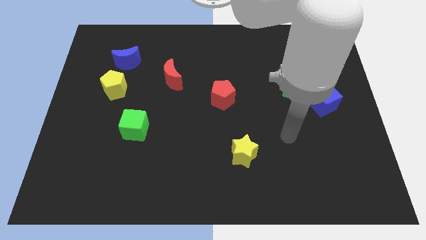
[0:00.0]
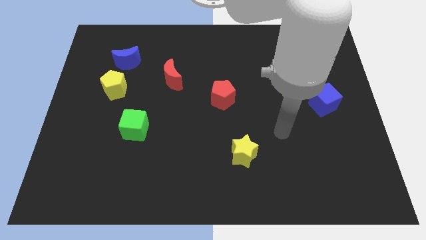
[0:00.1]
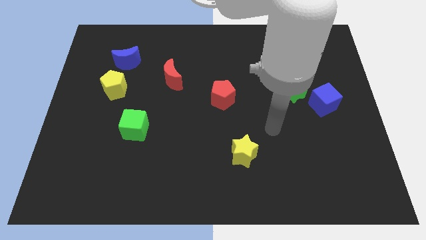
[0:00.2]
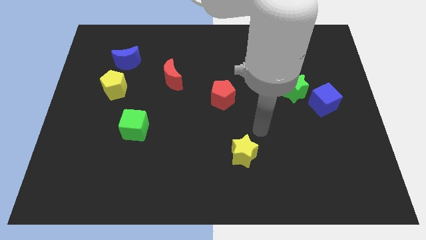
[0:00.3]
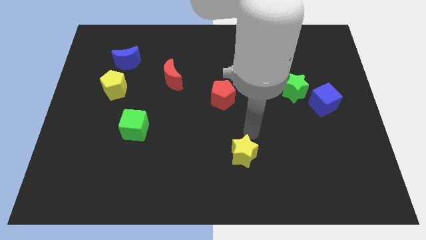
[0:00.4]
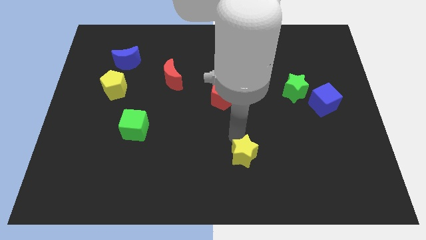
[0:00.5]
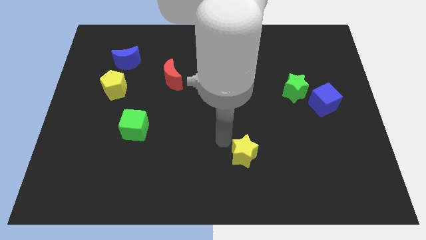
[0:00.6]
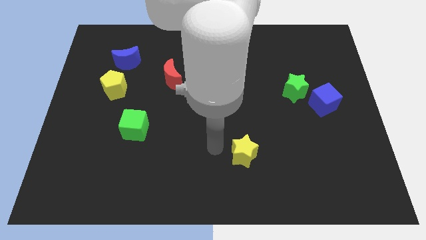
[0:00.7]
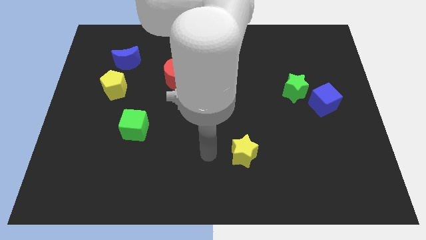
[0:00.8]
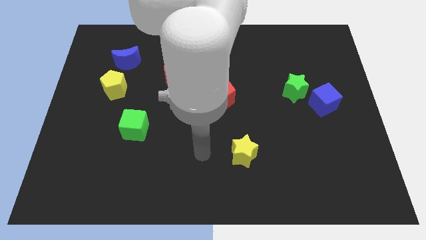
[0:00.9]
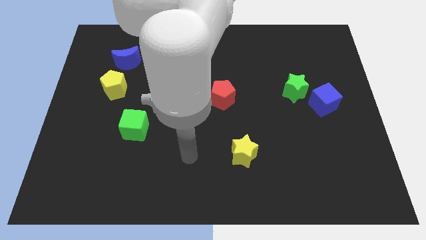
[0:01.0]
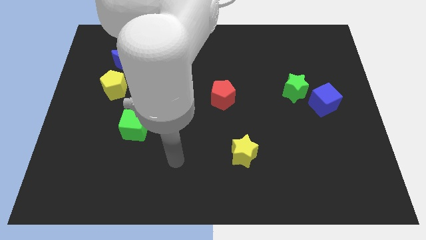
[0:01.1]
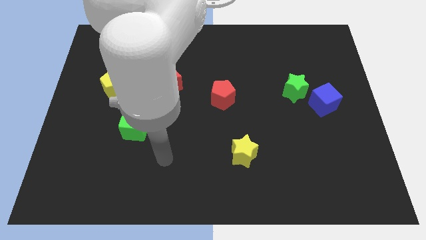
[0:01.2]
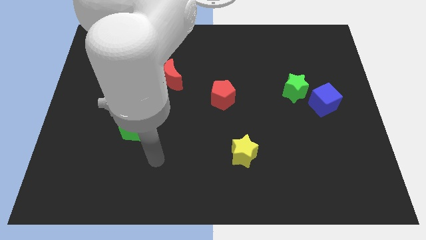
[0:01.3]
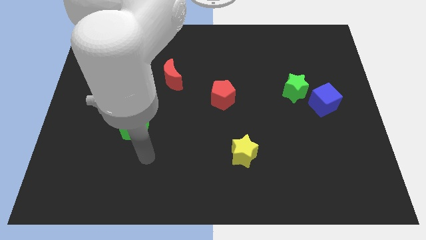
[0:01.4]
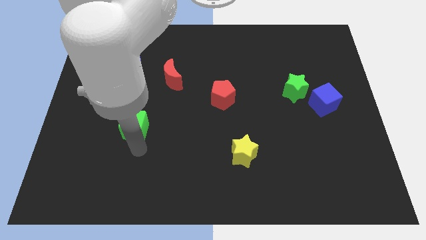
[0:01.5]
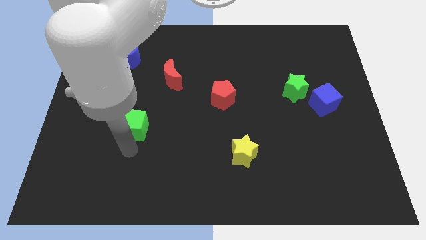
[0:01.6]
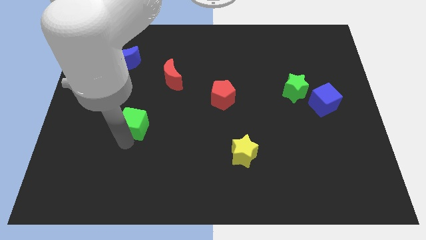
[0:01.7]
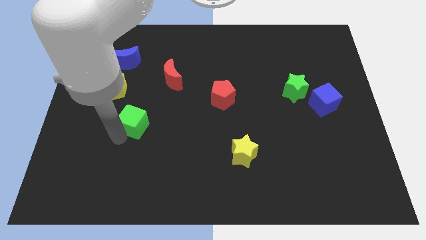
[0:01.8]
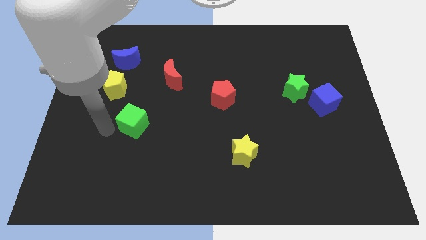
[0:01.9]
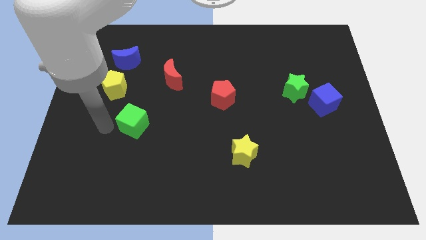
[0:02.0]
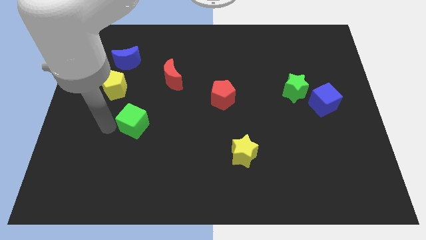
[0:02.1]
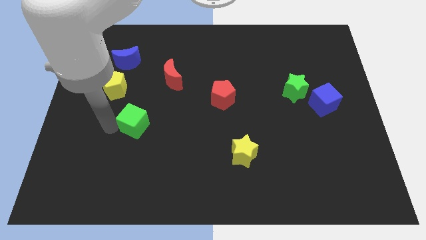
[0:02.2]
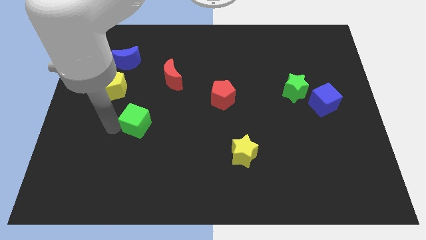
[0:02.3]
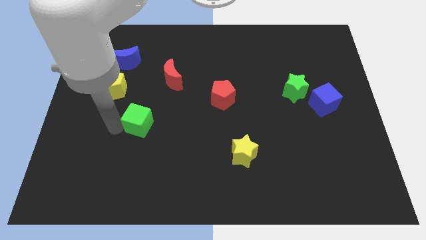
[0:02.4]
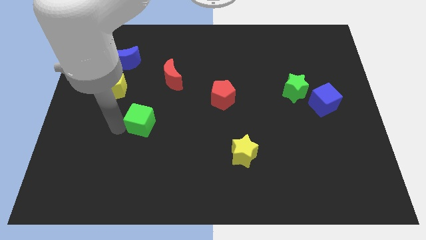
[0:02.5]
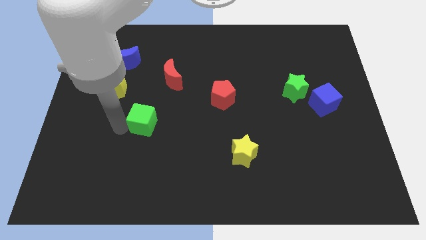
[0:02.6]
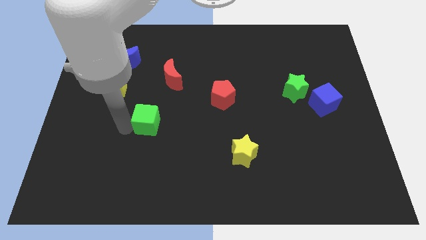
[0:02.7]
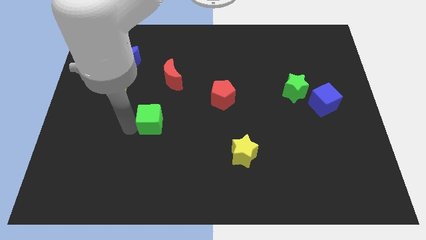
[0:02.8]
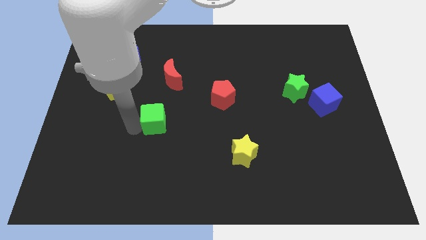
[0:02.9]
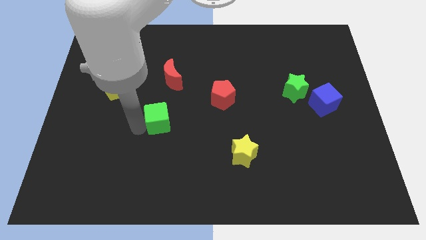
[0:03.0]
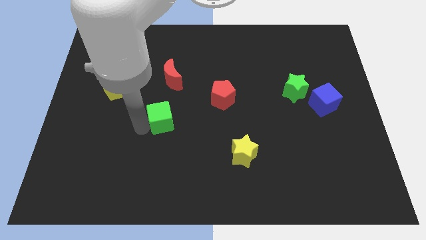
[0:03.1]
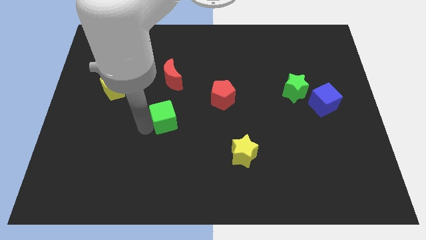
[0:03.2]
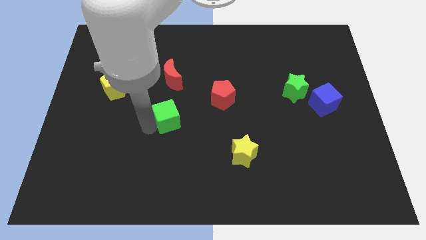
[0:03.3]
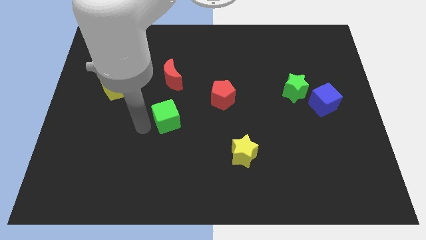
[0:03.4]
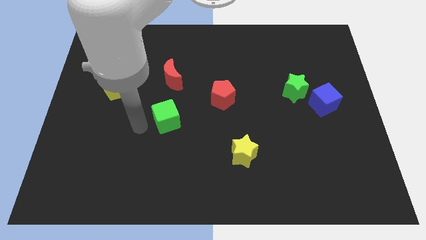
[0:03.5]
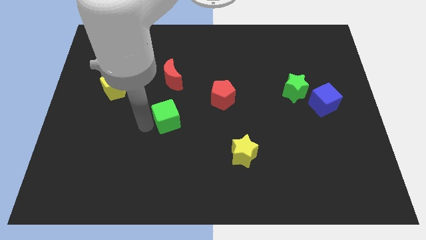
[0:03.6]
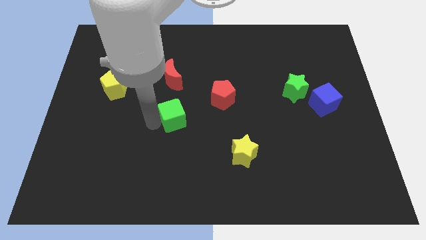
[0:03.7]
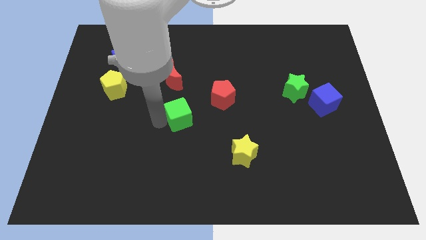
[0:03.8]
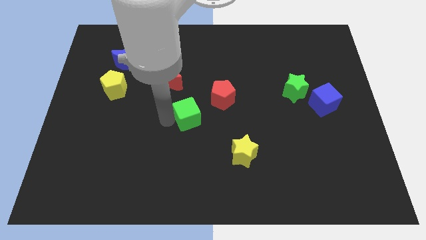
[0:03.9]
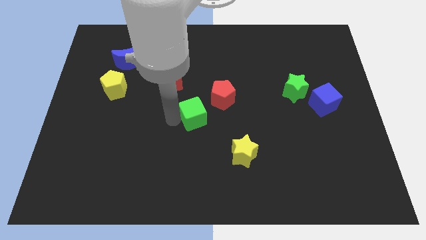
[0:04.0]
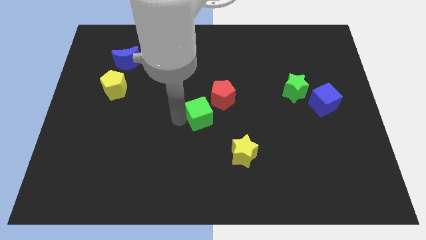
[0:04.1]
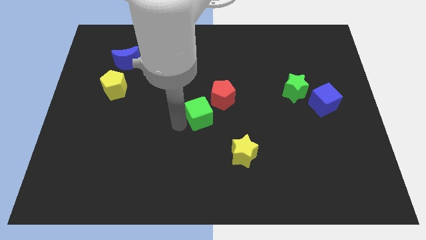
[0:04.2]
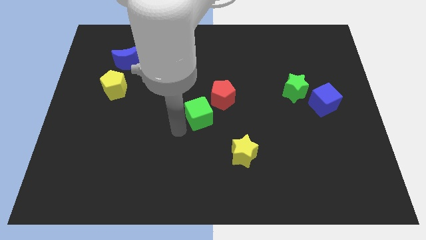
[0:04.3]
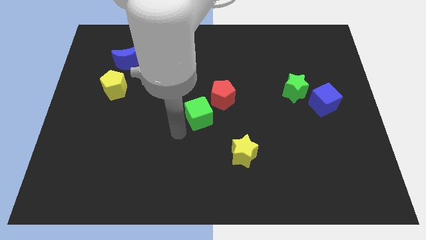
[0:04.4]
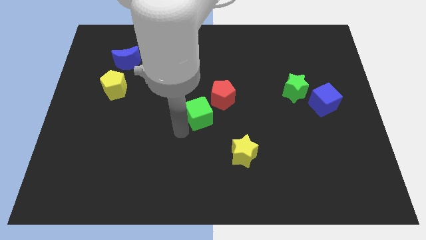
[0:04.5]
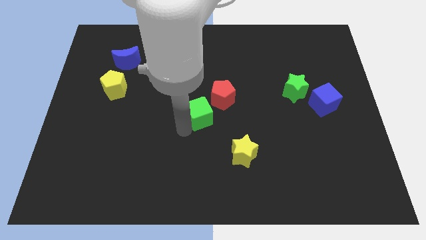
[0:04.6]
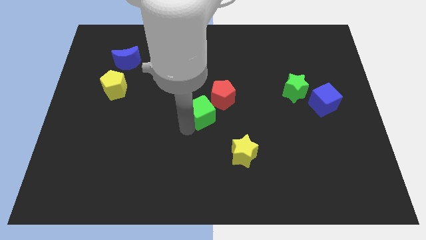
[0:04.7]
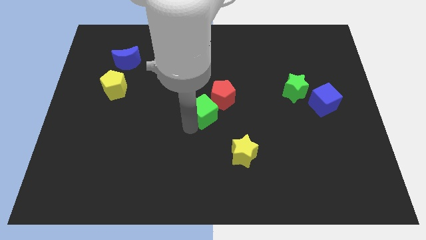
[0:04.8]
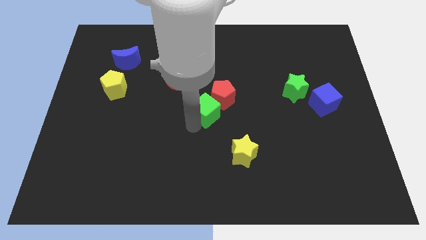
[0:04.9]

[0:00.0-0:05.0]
put the green cube to the red pentagon

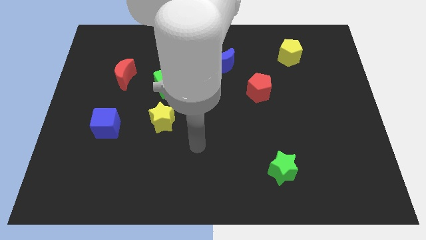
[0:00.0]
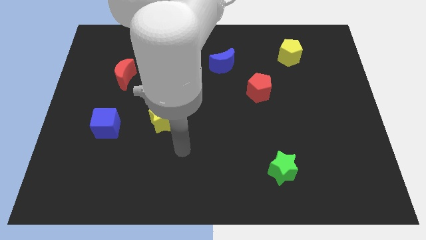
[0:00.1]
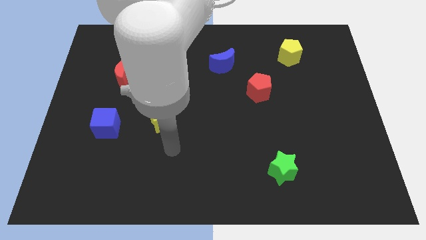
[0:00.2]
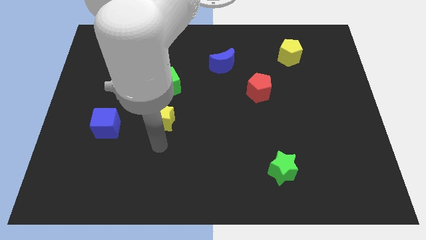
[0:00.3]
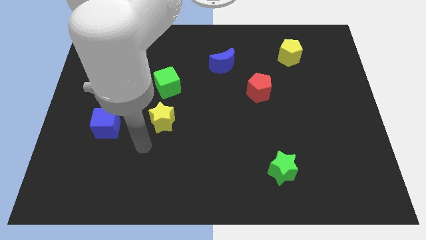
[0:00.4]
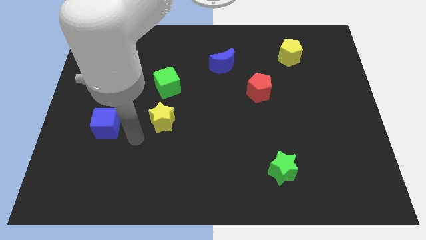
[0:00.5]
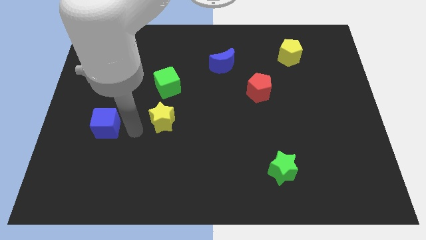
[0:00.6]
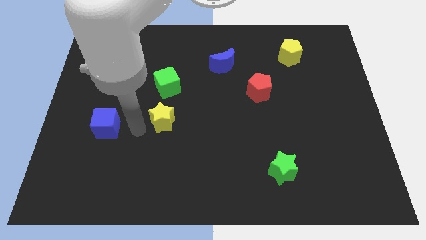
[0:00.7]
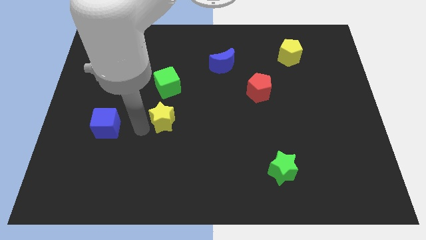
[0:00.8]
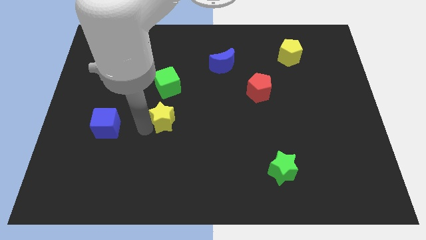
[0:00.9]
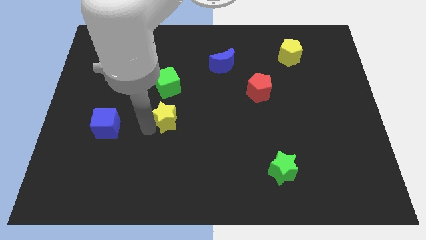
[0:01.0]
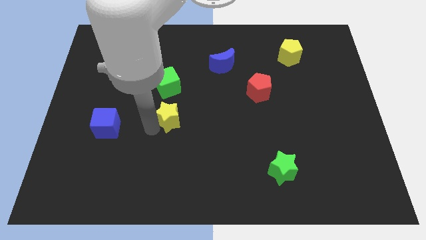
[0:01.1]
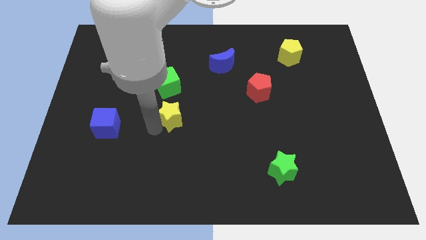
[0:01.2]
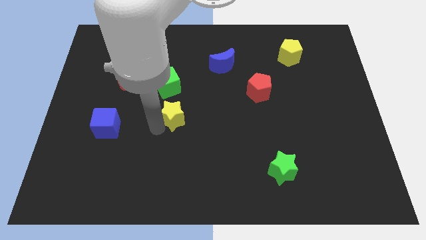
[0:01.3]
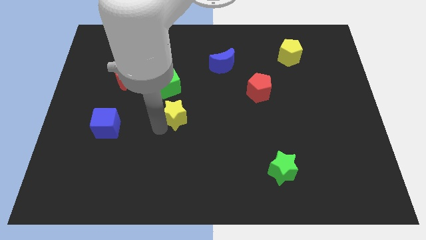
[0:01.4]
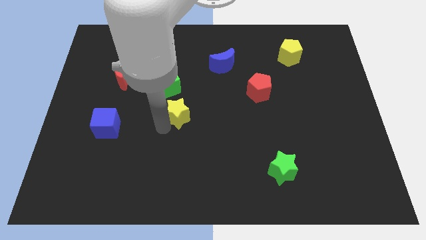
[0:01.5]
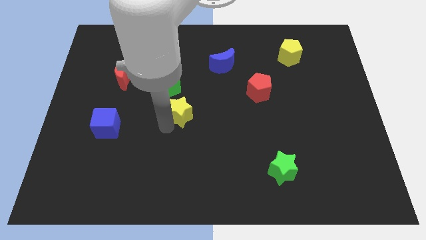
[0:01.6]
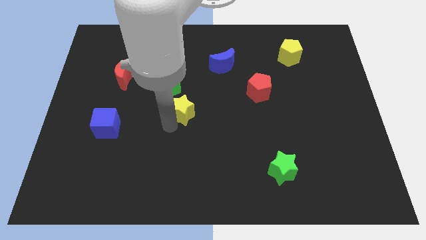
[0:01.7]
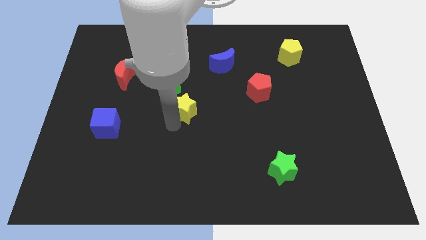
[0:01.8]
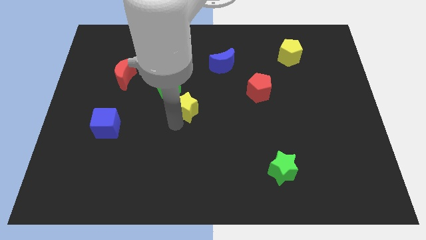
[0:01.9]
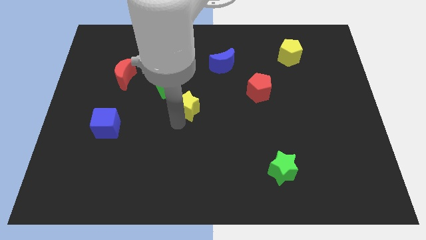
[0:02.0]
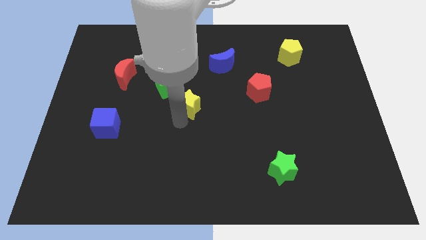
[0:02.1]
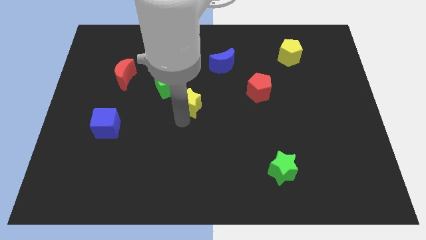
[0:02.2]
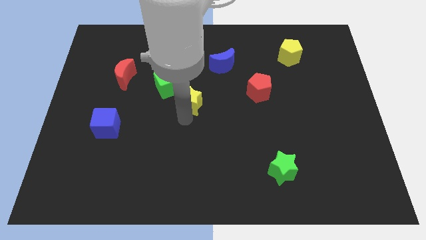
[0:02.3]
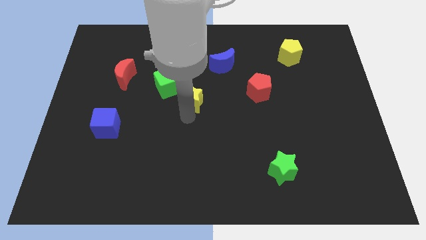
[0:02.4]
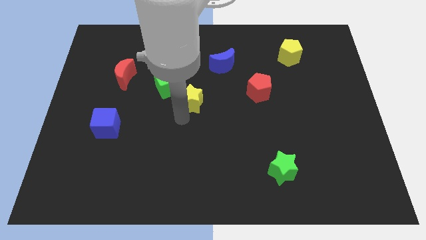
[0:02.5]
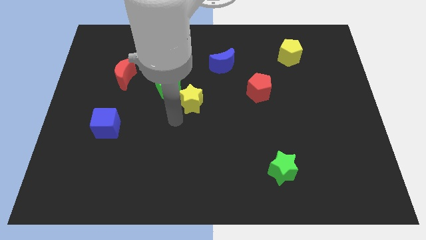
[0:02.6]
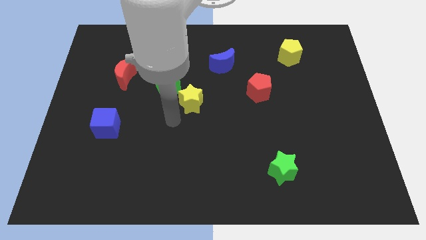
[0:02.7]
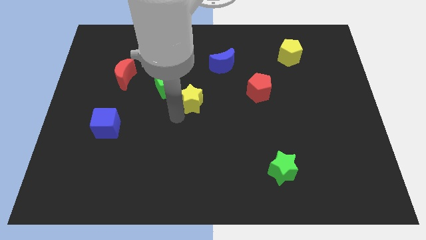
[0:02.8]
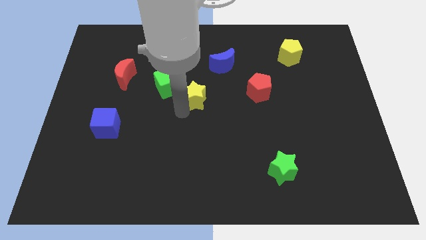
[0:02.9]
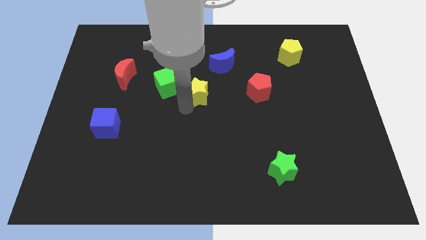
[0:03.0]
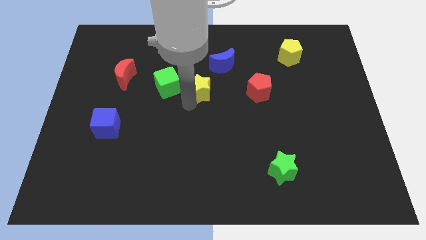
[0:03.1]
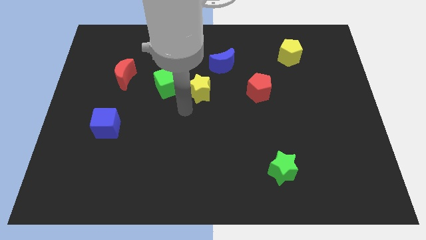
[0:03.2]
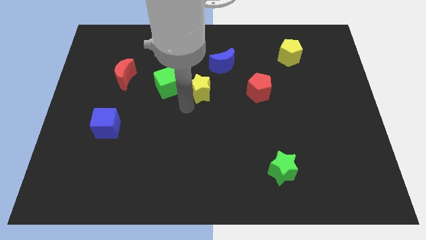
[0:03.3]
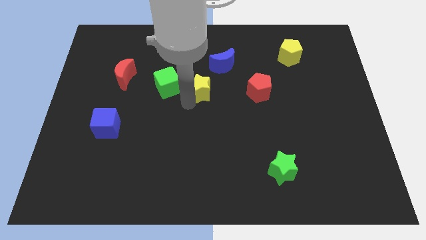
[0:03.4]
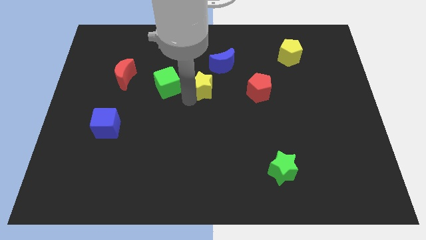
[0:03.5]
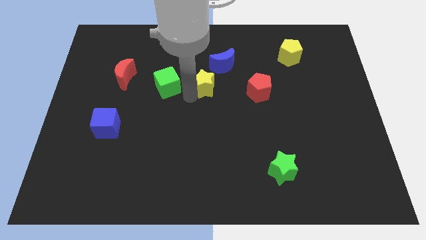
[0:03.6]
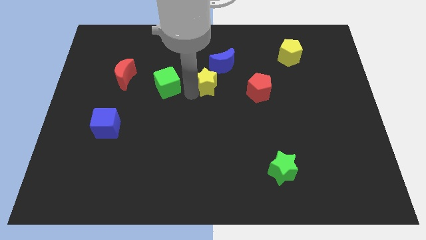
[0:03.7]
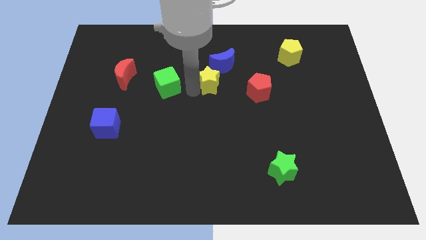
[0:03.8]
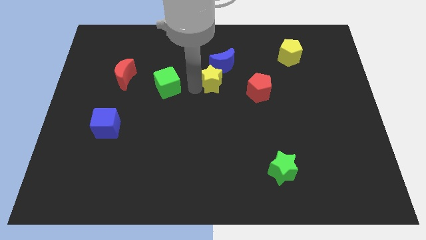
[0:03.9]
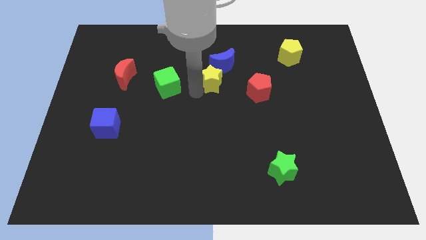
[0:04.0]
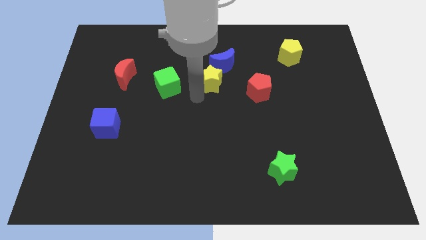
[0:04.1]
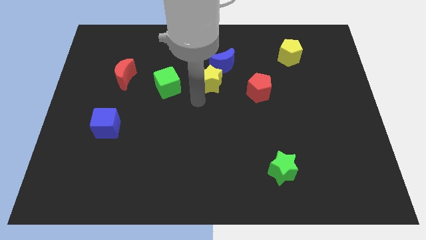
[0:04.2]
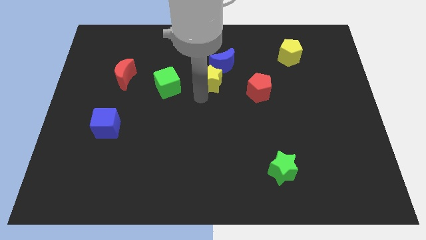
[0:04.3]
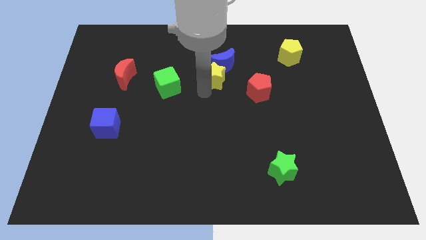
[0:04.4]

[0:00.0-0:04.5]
push the yellow star close to the blue moon
